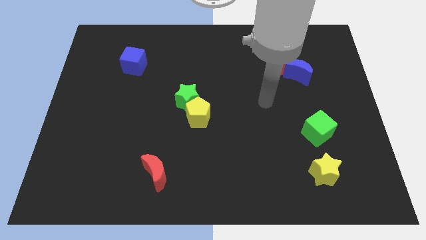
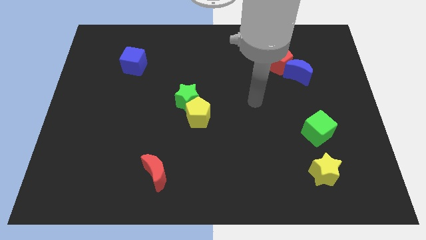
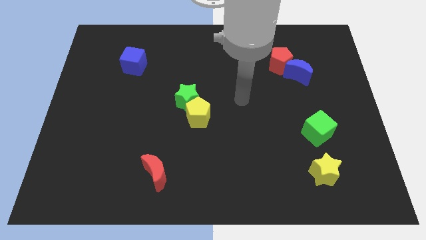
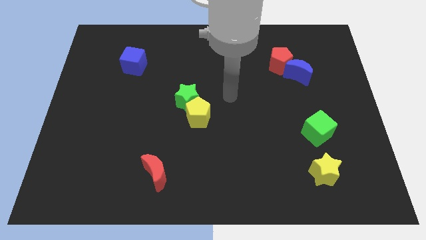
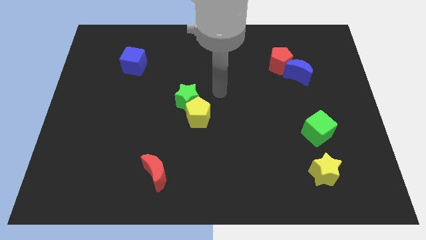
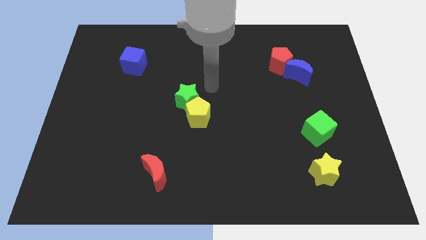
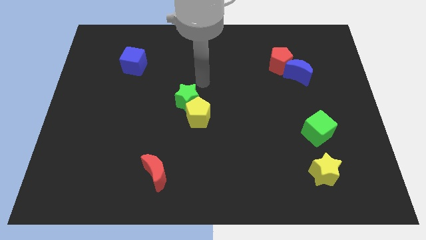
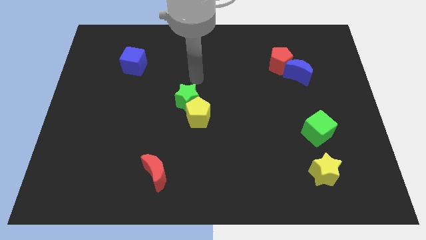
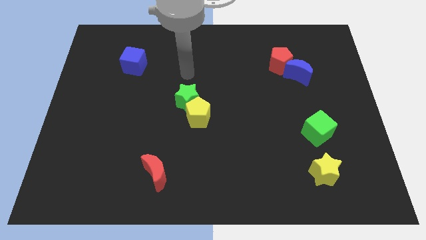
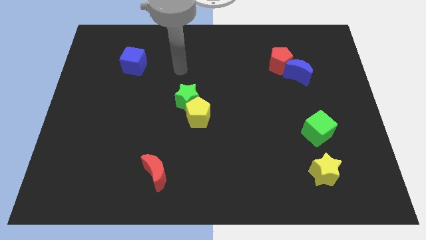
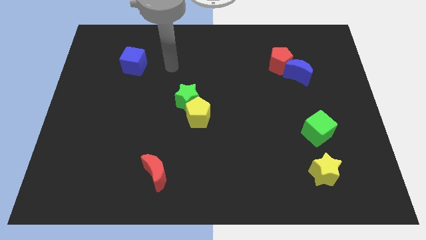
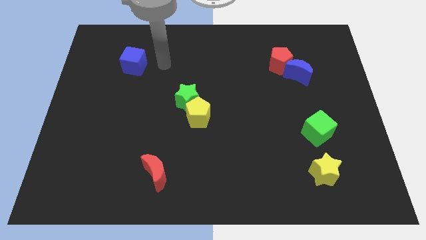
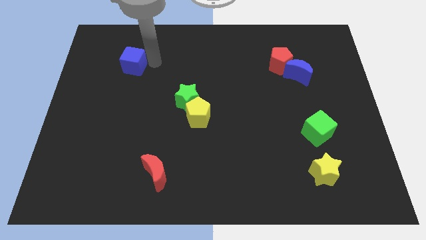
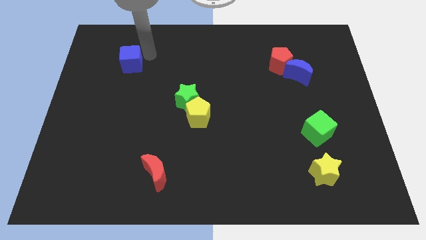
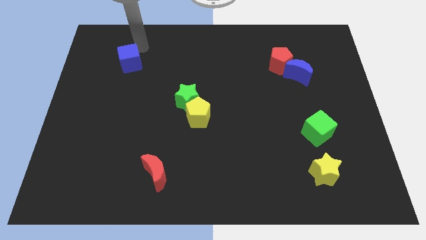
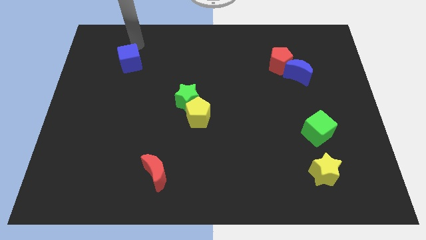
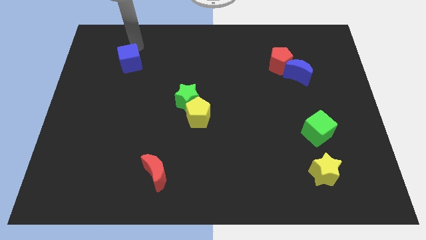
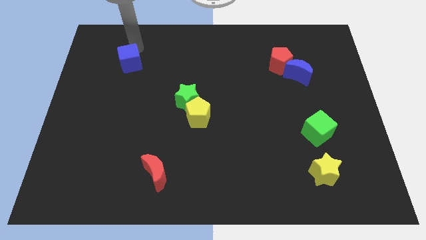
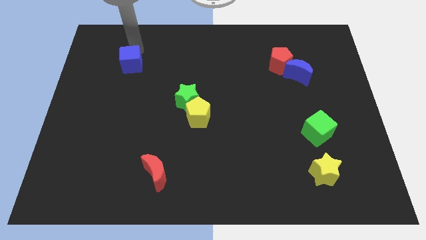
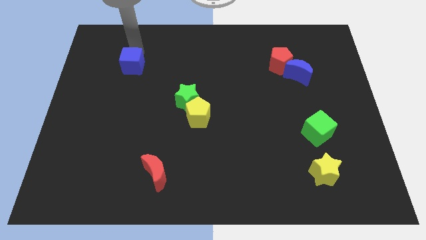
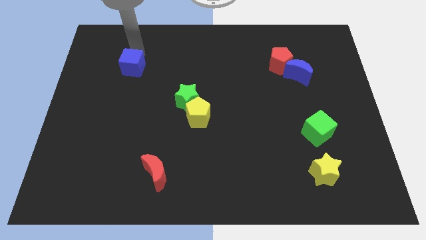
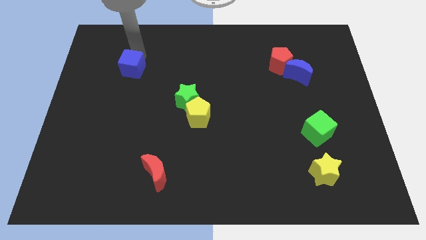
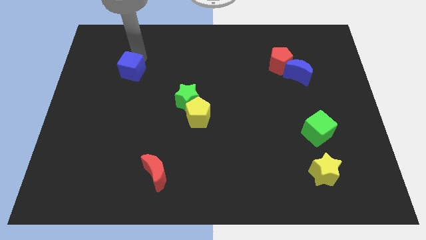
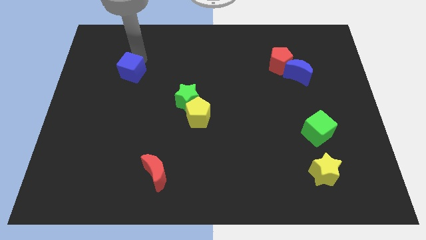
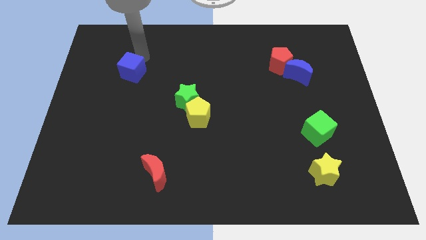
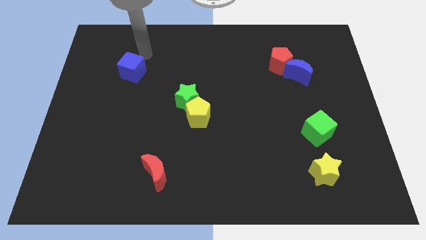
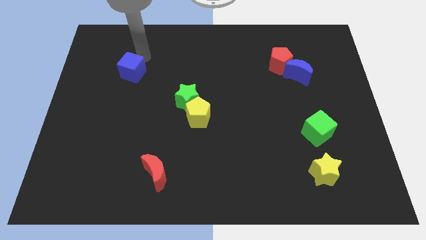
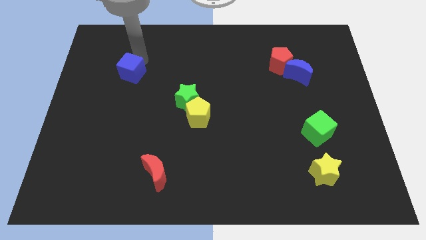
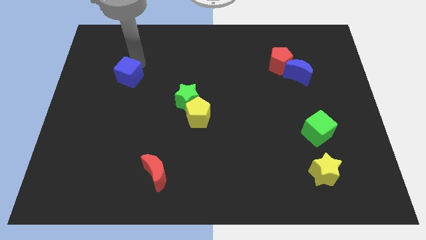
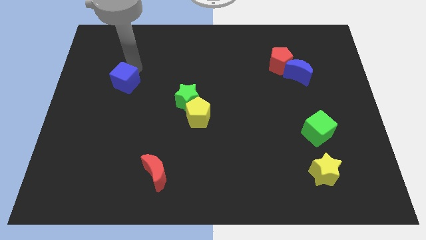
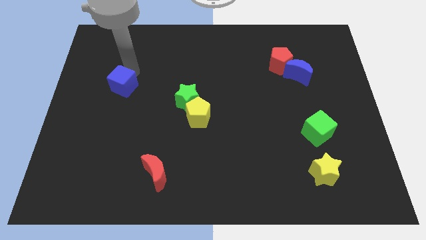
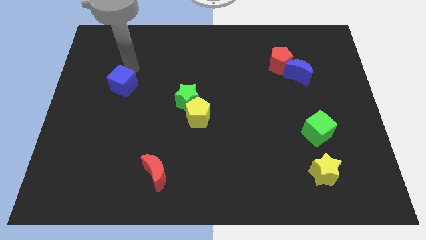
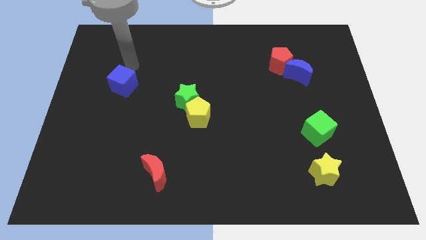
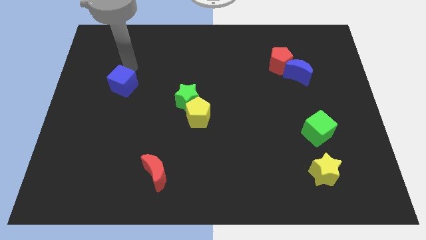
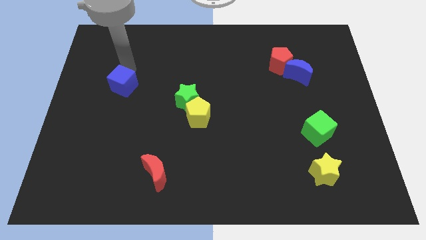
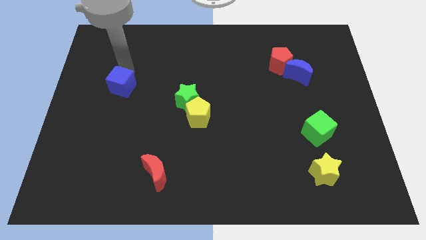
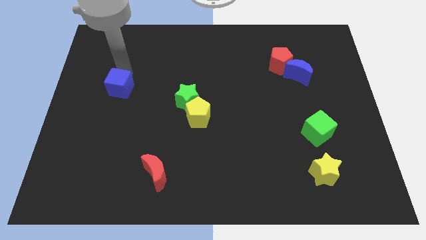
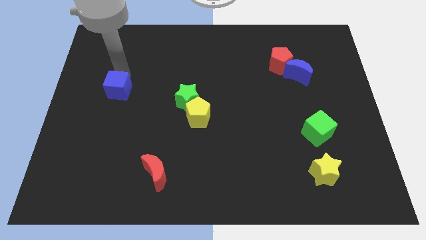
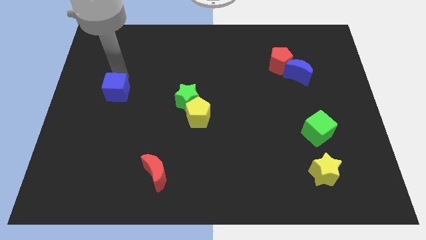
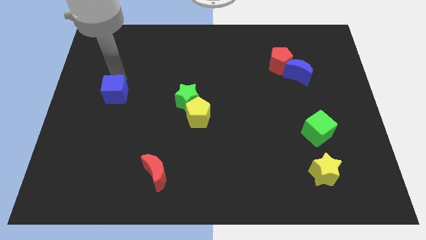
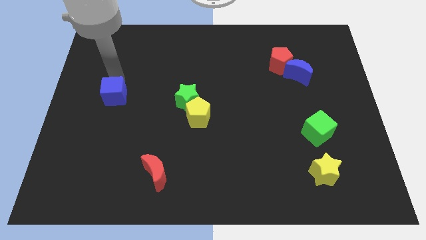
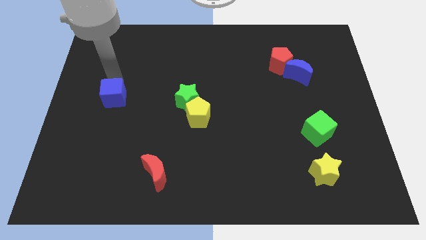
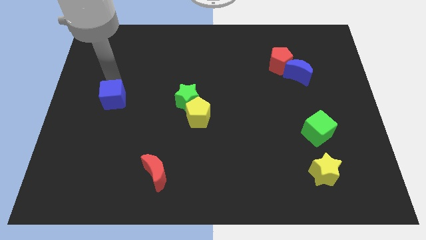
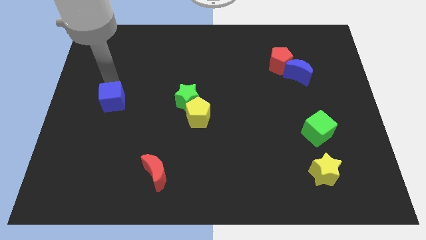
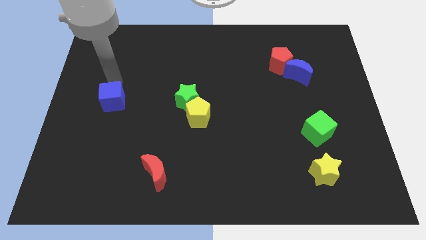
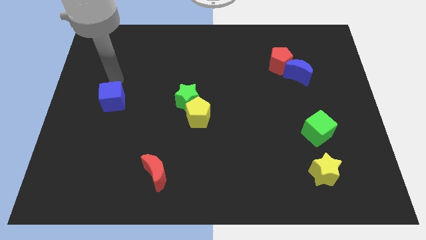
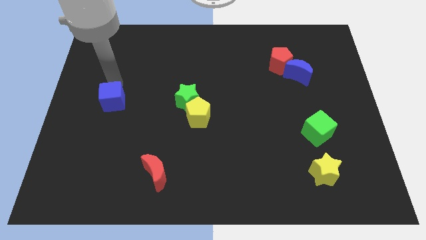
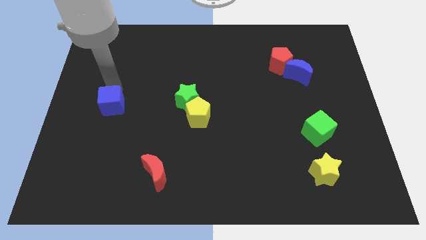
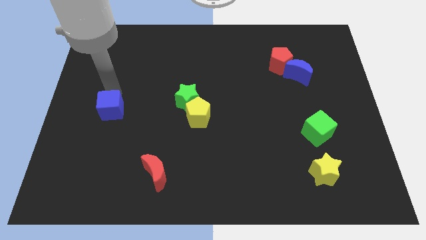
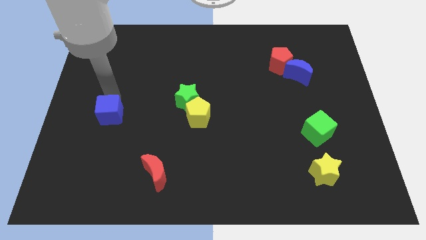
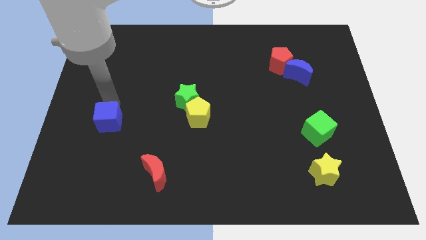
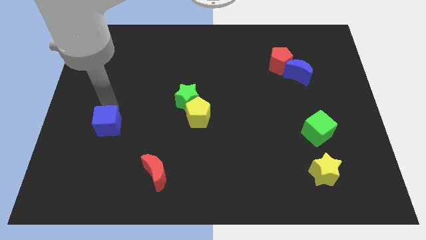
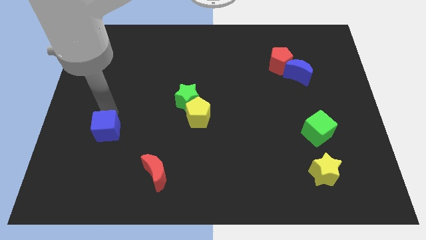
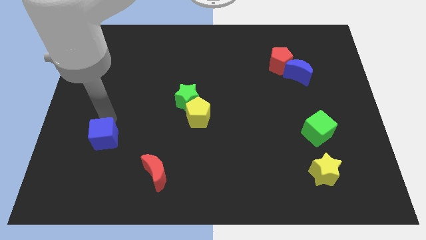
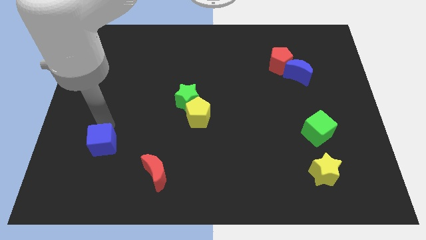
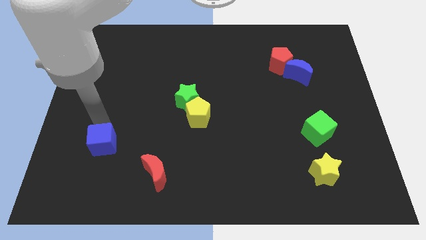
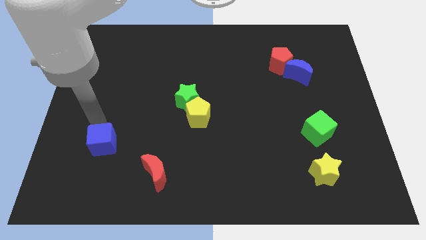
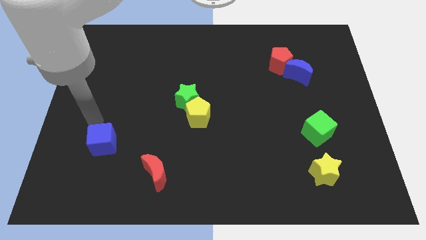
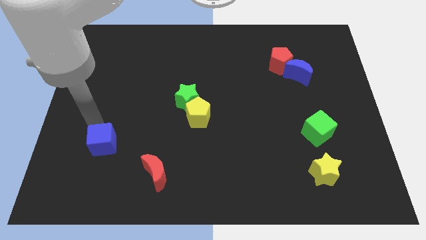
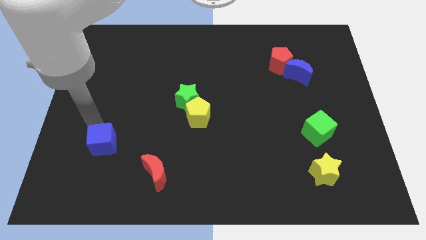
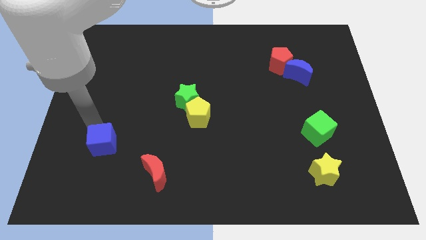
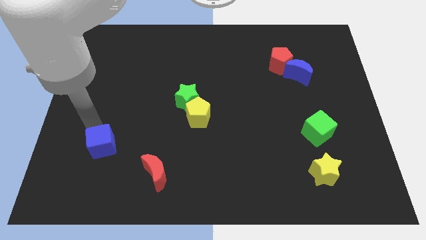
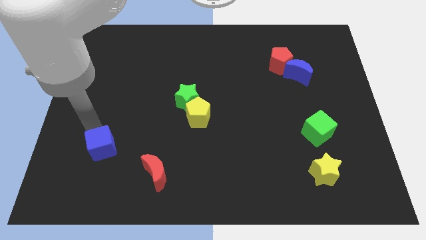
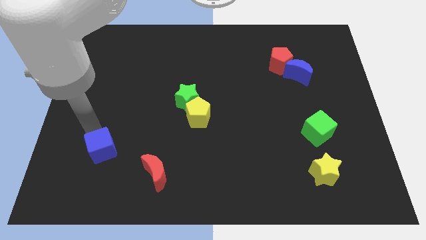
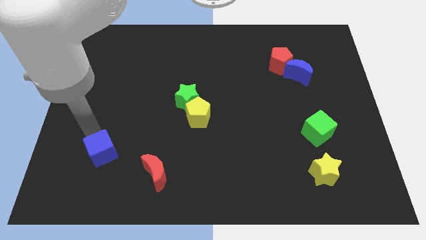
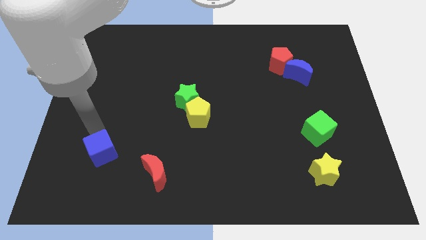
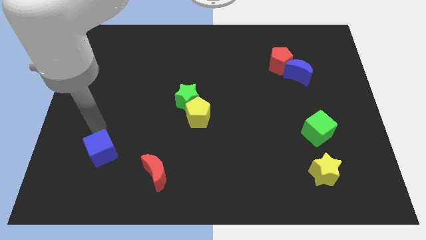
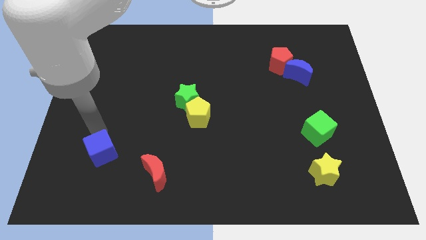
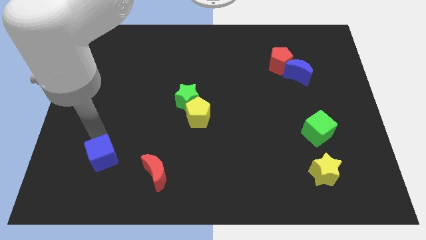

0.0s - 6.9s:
push the blue cube to the left side of the red moon
